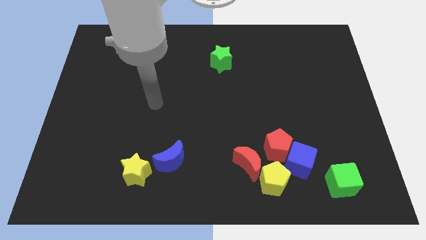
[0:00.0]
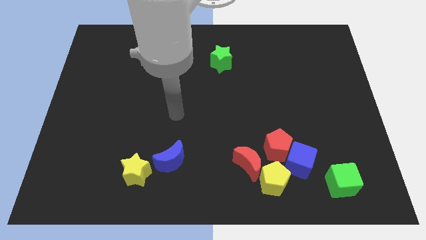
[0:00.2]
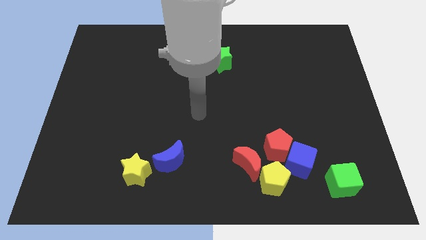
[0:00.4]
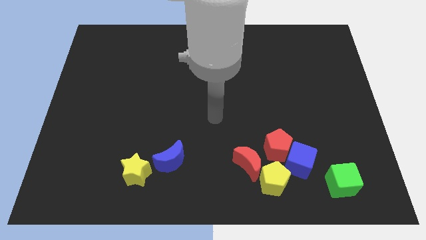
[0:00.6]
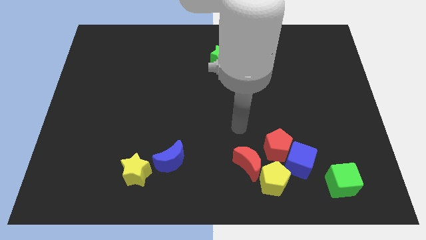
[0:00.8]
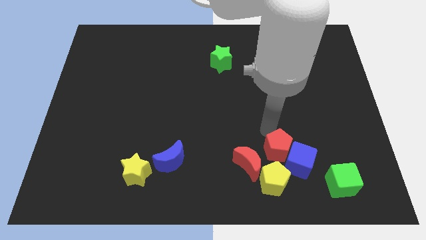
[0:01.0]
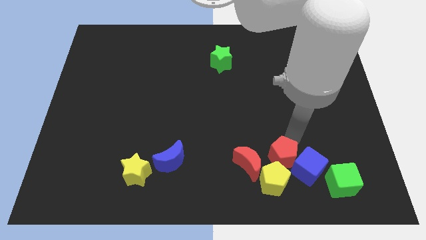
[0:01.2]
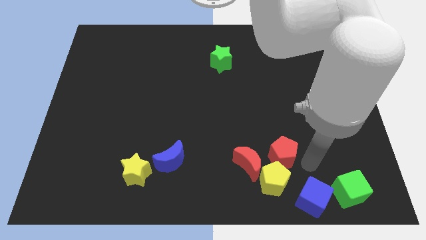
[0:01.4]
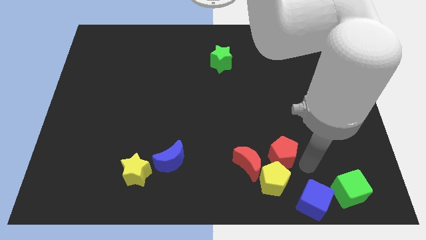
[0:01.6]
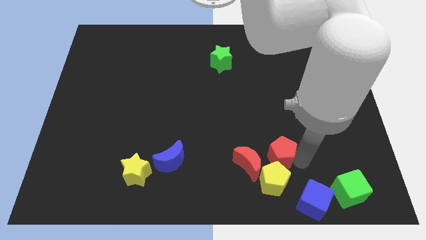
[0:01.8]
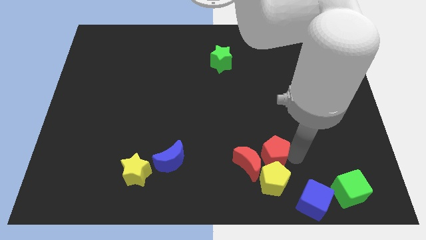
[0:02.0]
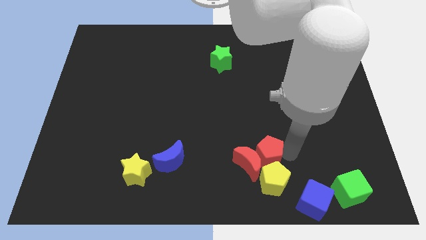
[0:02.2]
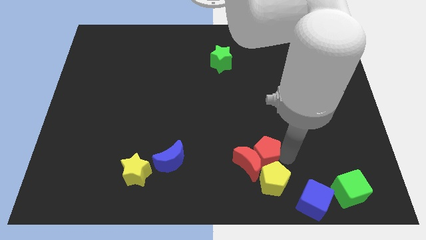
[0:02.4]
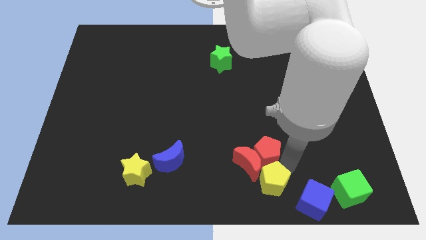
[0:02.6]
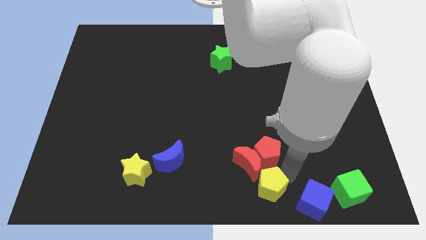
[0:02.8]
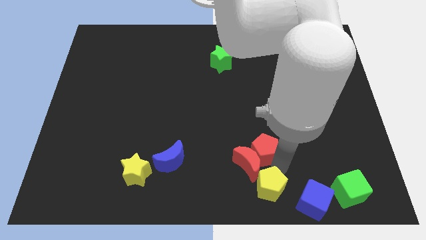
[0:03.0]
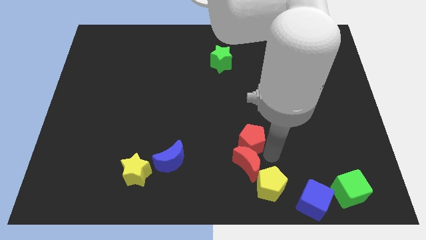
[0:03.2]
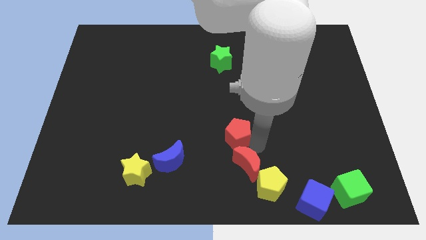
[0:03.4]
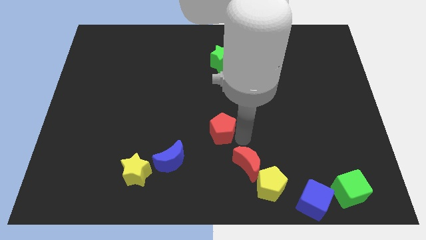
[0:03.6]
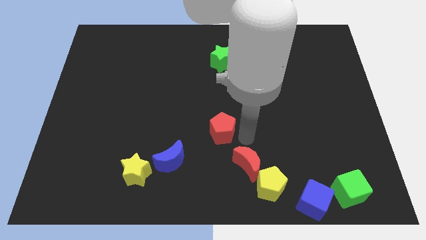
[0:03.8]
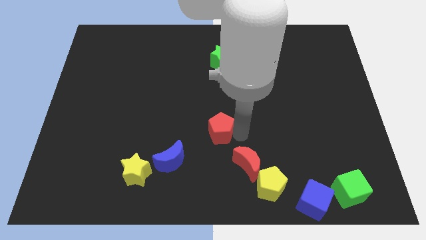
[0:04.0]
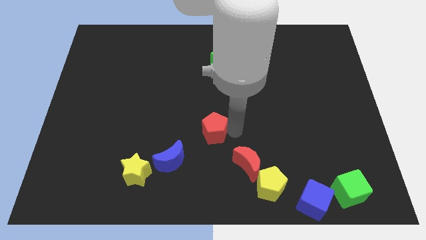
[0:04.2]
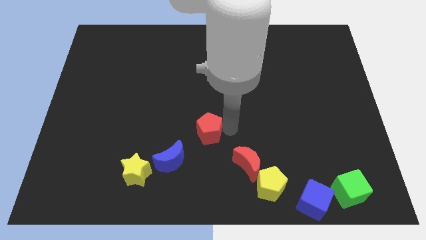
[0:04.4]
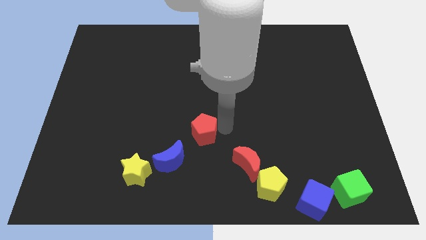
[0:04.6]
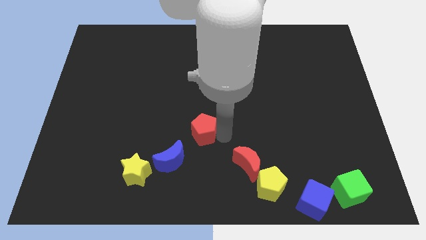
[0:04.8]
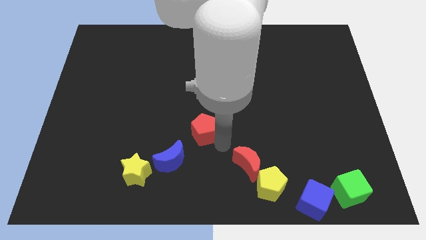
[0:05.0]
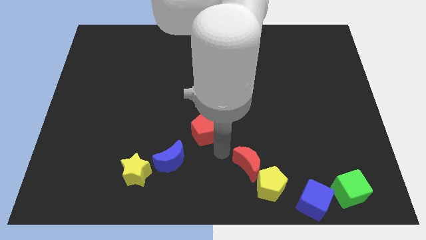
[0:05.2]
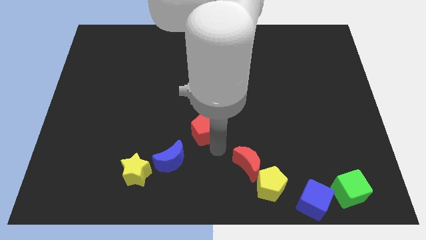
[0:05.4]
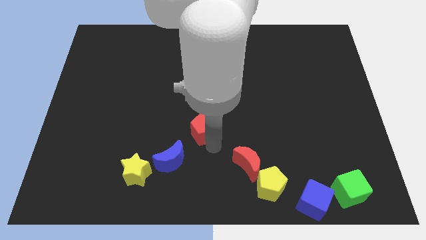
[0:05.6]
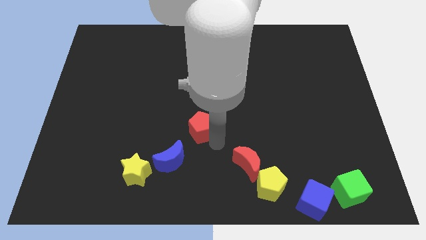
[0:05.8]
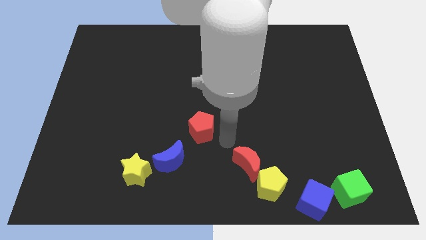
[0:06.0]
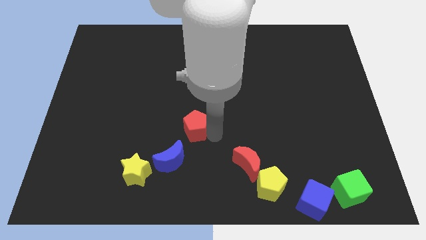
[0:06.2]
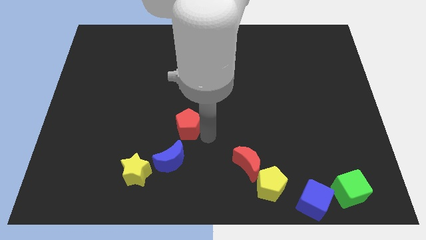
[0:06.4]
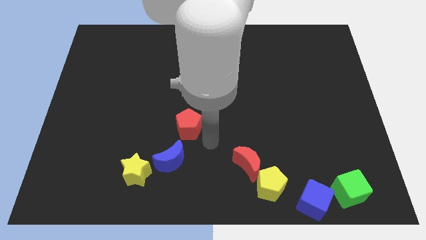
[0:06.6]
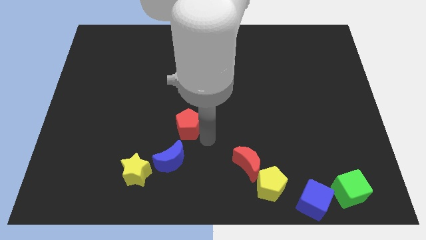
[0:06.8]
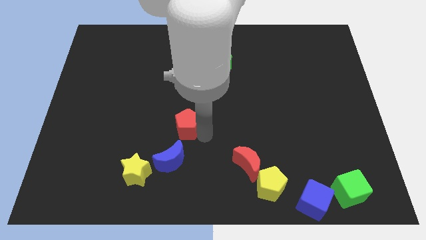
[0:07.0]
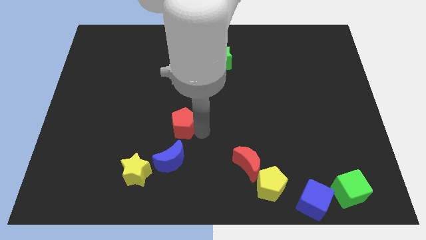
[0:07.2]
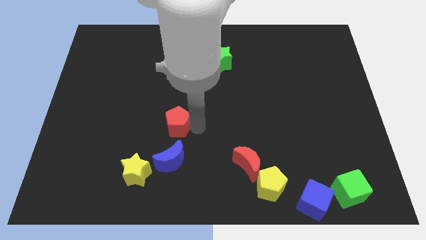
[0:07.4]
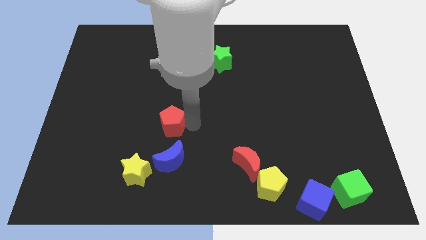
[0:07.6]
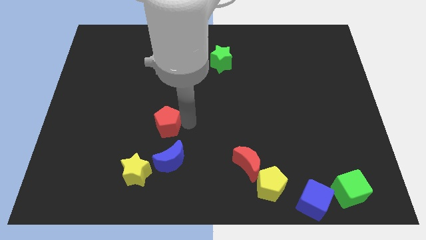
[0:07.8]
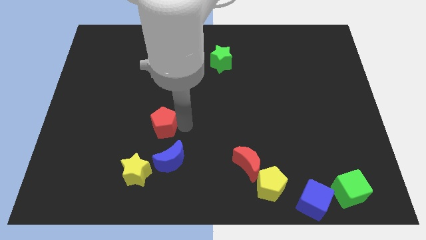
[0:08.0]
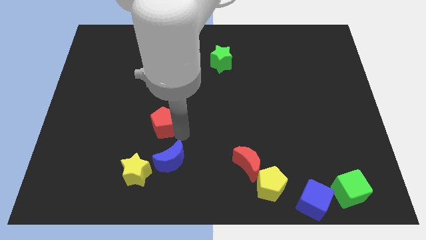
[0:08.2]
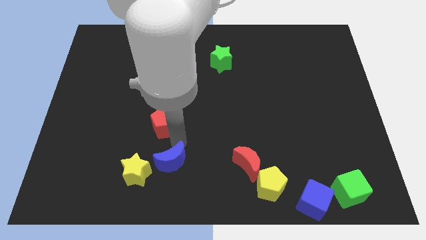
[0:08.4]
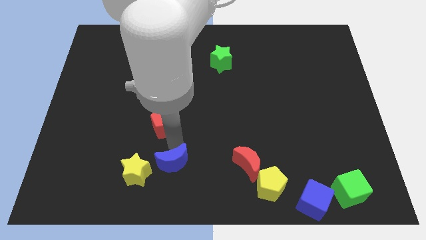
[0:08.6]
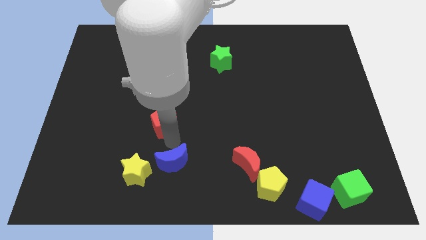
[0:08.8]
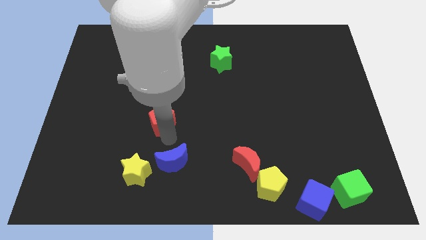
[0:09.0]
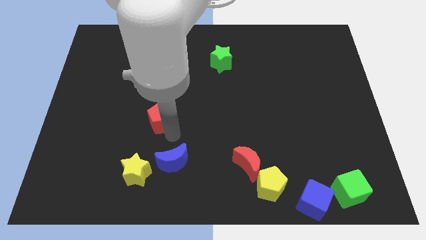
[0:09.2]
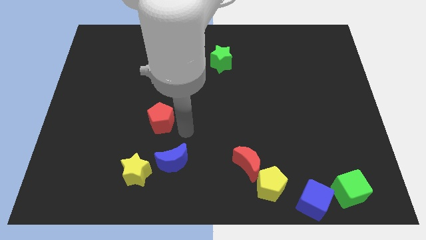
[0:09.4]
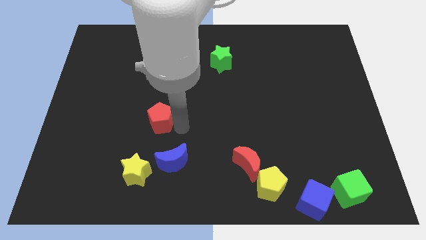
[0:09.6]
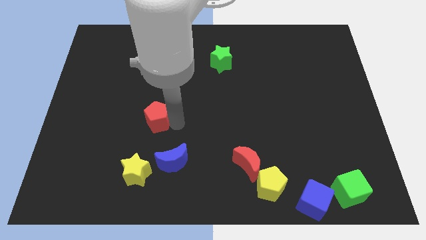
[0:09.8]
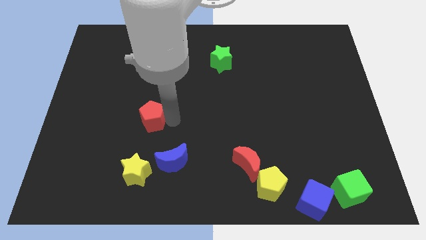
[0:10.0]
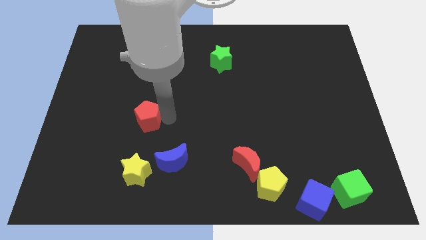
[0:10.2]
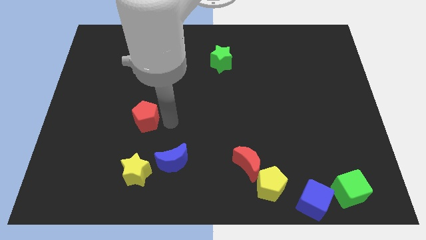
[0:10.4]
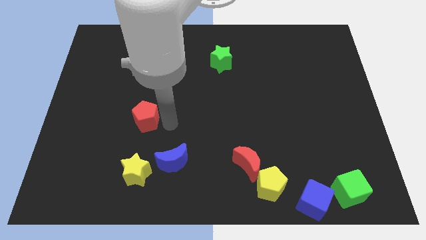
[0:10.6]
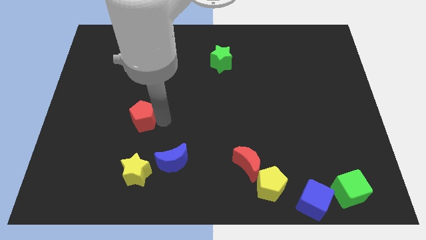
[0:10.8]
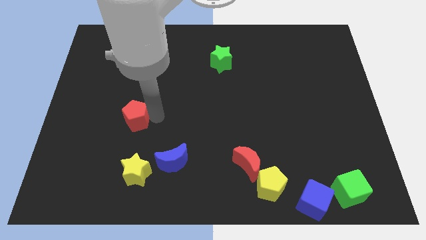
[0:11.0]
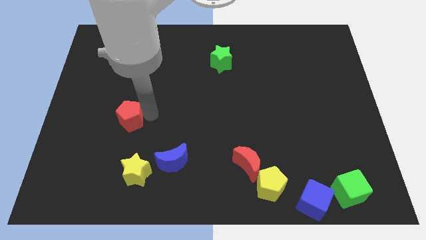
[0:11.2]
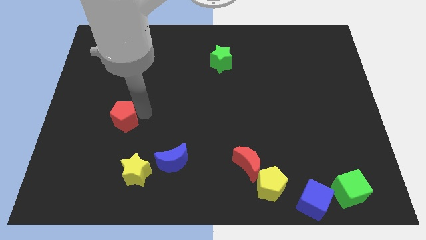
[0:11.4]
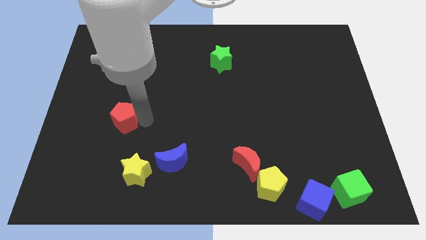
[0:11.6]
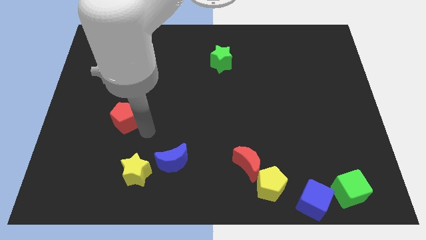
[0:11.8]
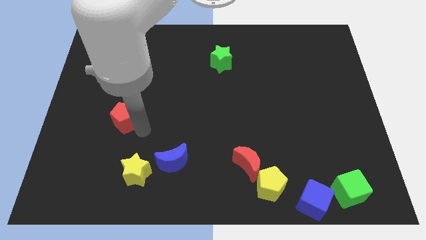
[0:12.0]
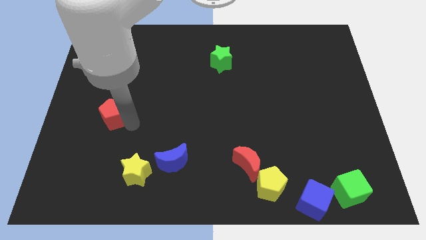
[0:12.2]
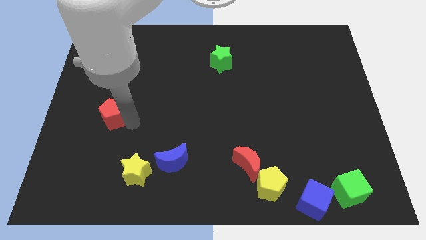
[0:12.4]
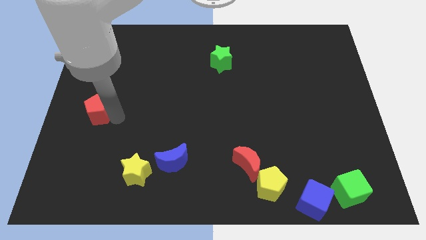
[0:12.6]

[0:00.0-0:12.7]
put the red pentagon to the left side
